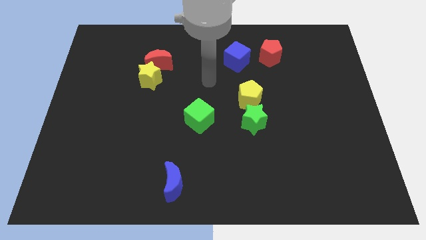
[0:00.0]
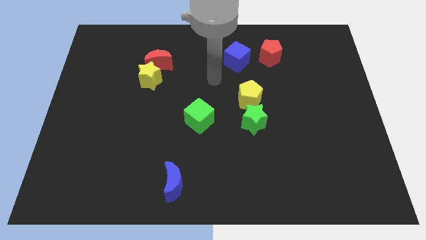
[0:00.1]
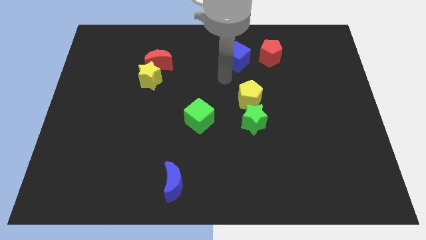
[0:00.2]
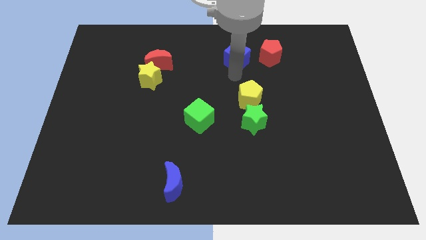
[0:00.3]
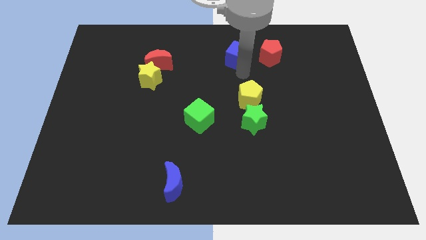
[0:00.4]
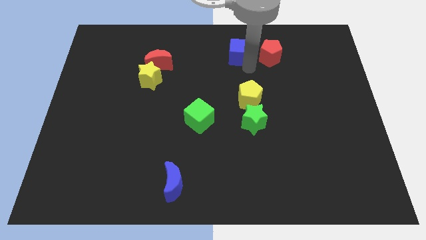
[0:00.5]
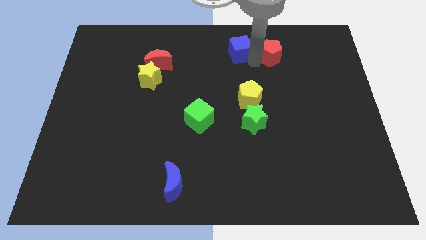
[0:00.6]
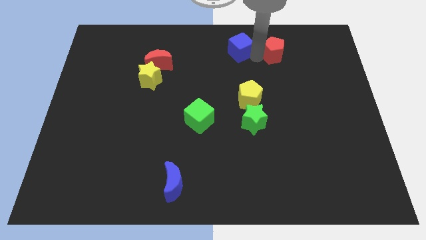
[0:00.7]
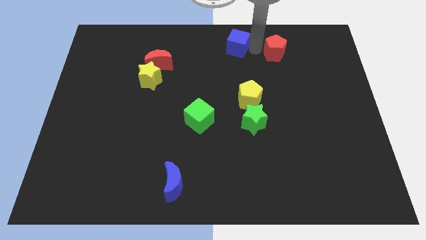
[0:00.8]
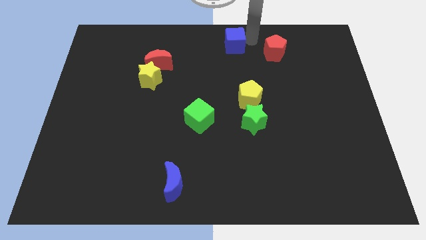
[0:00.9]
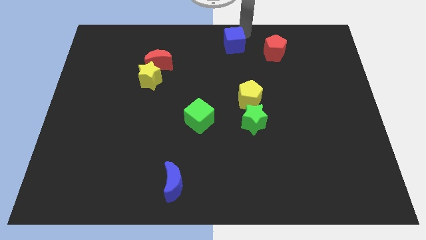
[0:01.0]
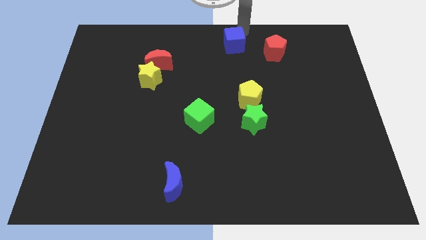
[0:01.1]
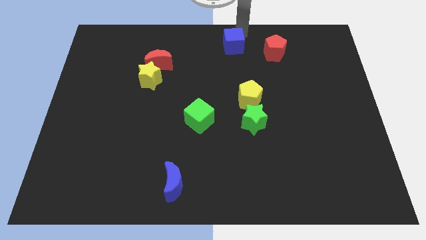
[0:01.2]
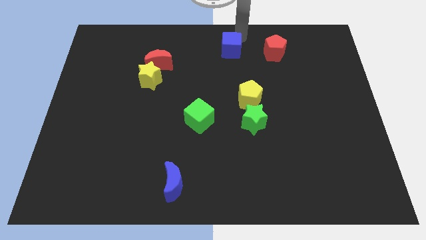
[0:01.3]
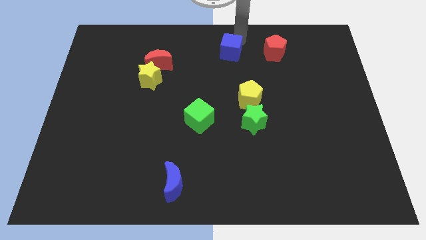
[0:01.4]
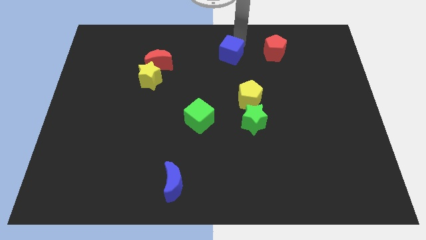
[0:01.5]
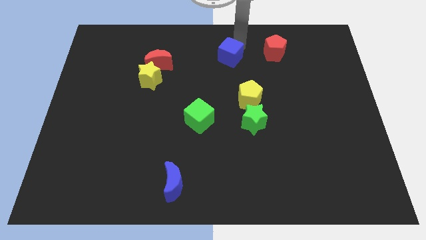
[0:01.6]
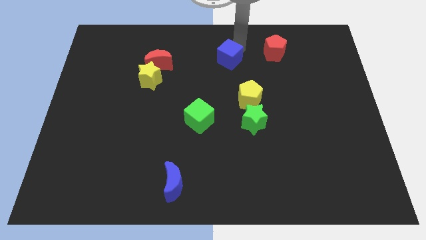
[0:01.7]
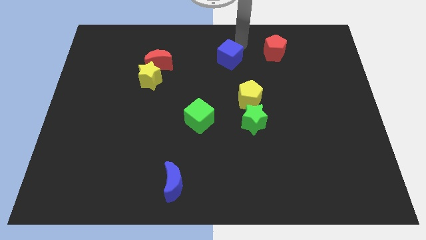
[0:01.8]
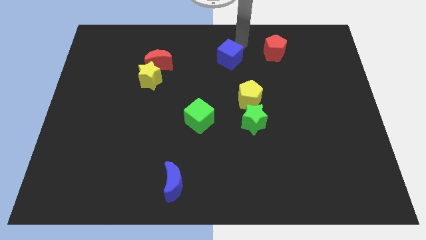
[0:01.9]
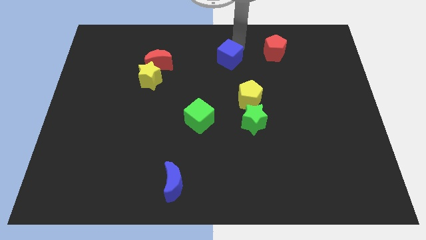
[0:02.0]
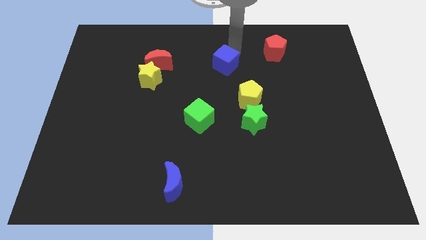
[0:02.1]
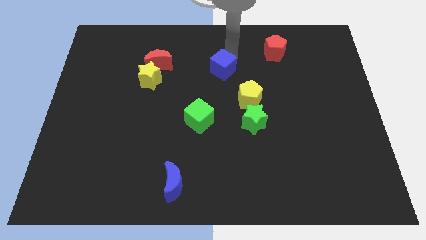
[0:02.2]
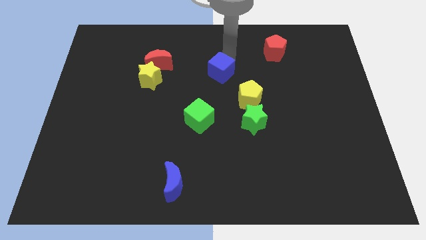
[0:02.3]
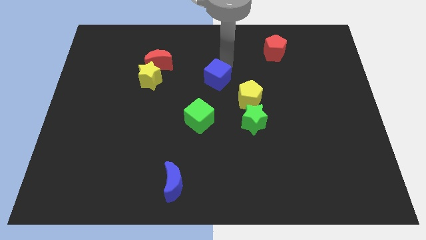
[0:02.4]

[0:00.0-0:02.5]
move the blue cube downwards and left diagonally slightly

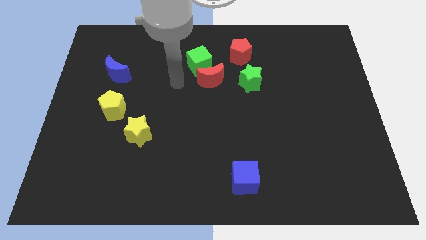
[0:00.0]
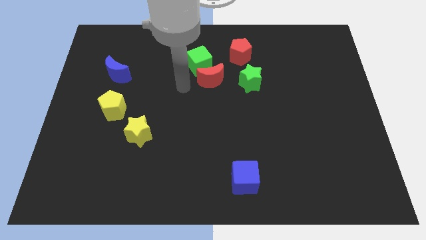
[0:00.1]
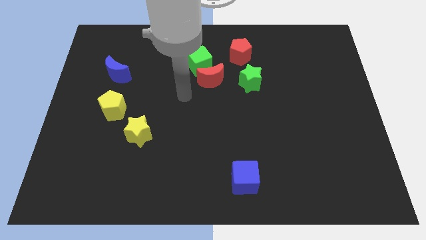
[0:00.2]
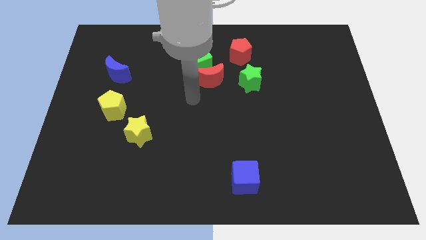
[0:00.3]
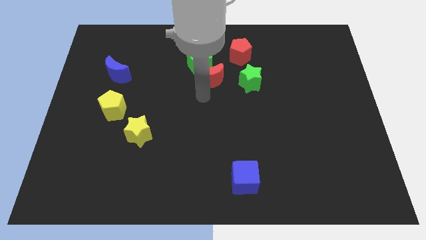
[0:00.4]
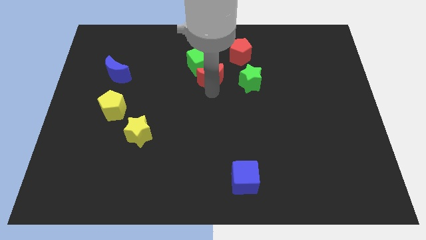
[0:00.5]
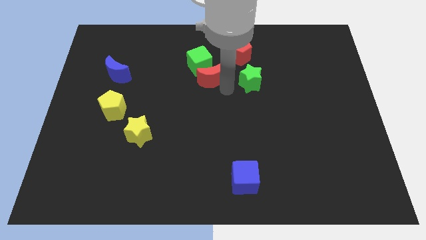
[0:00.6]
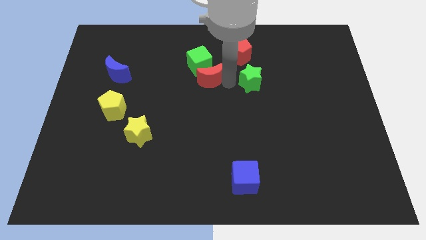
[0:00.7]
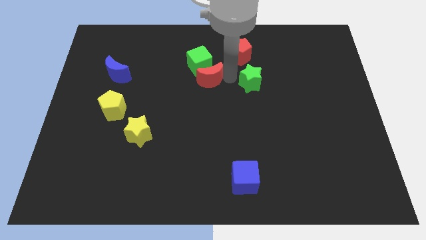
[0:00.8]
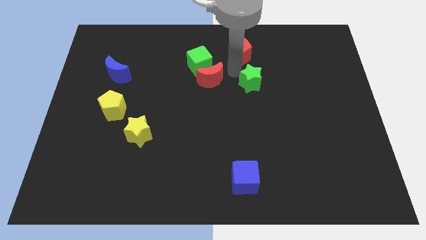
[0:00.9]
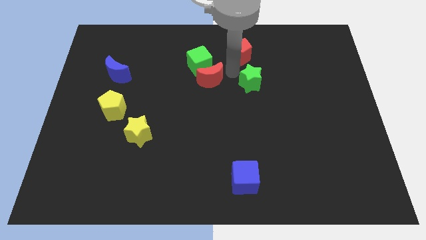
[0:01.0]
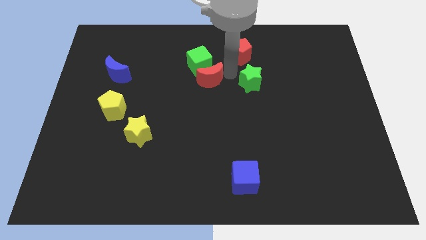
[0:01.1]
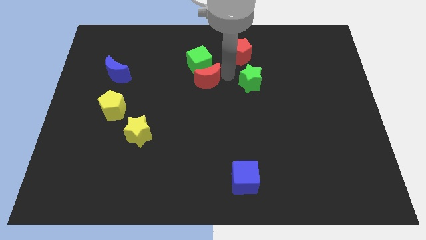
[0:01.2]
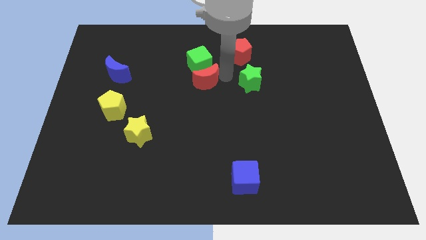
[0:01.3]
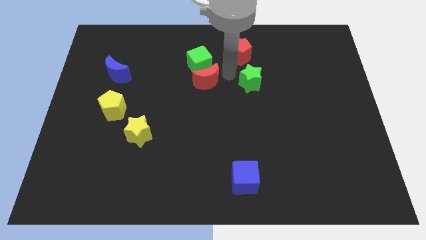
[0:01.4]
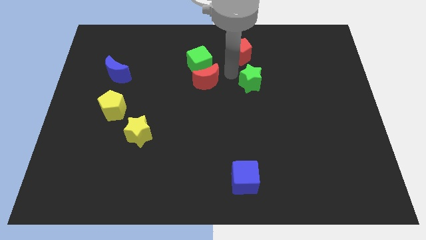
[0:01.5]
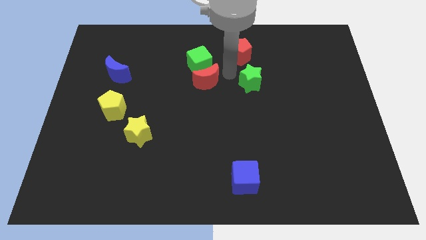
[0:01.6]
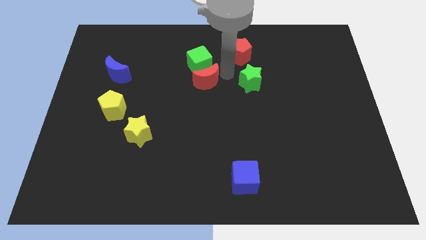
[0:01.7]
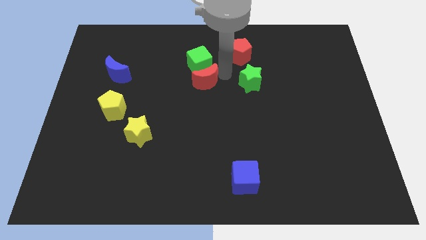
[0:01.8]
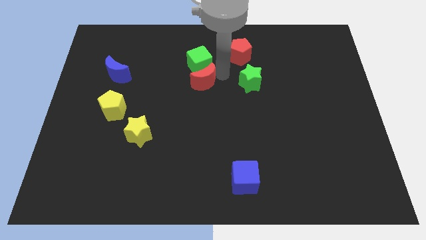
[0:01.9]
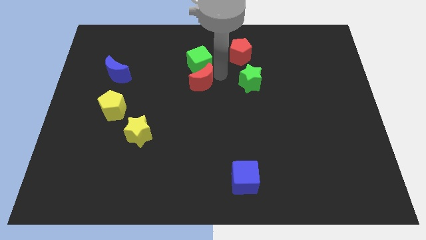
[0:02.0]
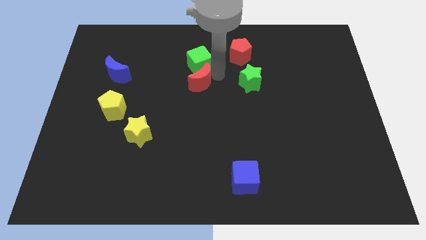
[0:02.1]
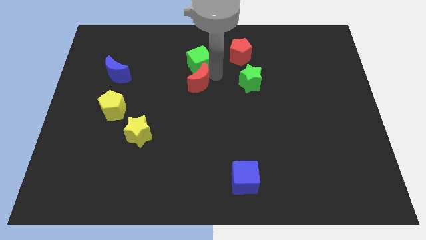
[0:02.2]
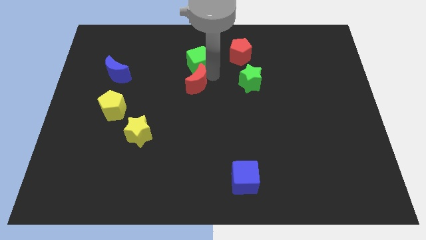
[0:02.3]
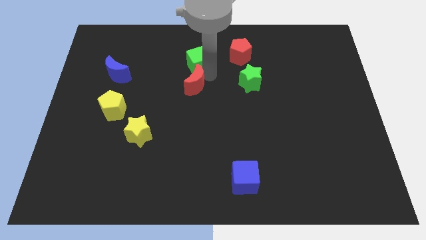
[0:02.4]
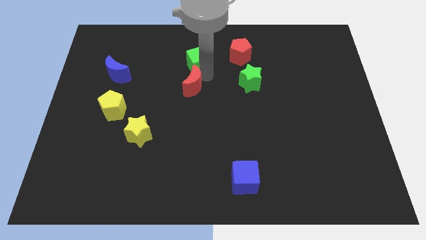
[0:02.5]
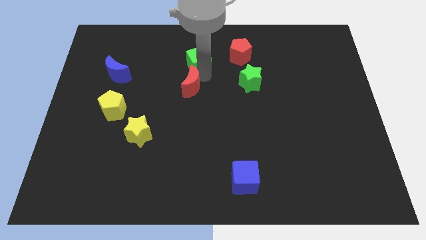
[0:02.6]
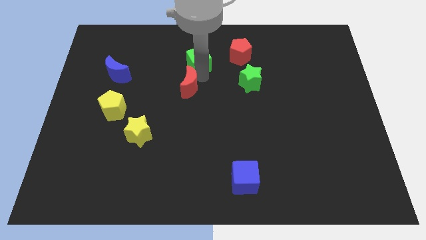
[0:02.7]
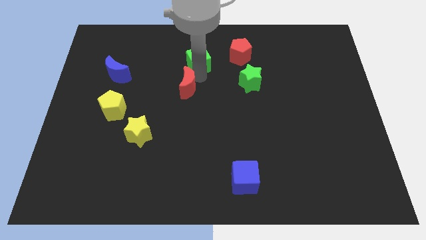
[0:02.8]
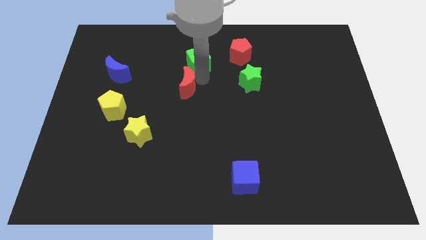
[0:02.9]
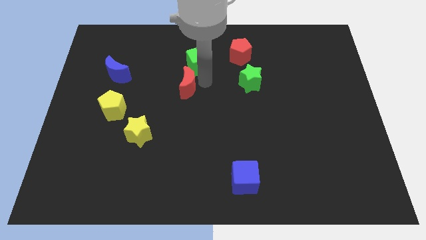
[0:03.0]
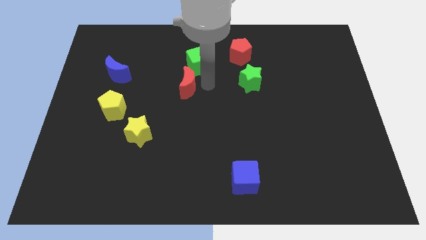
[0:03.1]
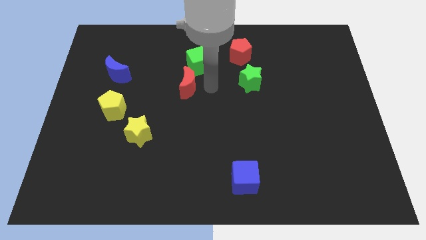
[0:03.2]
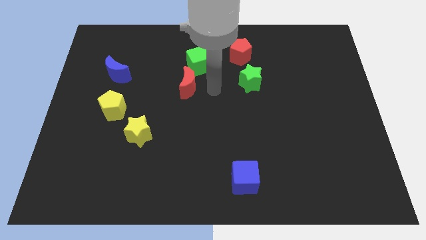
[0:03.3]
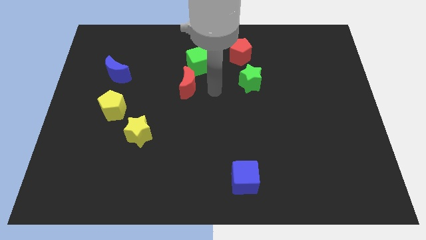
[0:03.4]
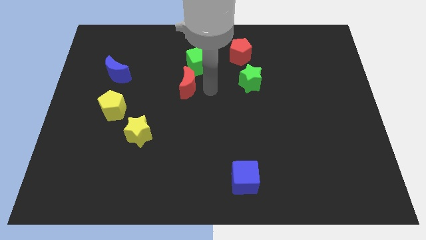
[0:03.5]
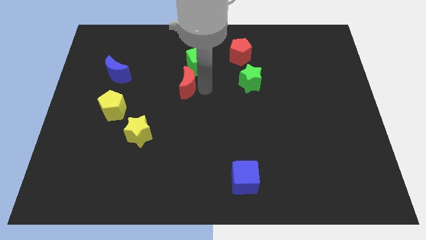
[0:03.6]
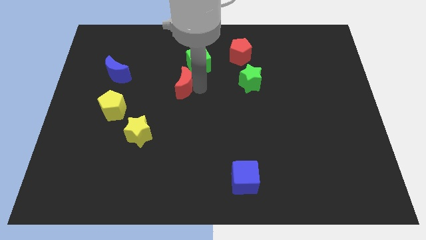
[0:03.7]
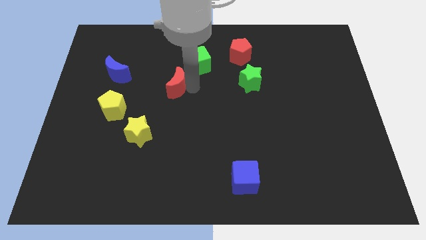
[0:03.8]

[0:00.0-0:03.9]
push the red moon somewhat to the left

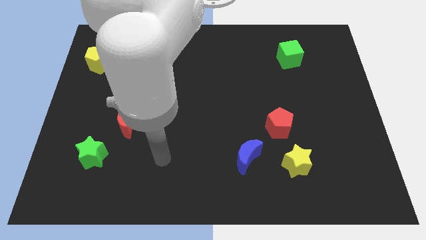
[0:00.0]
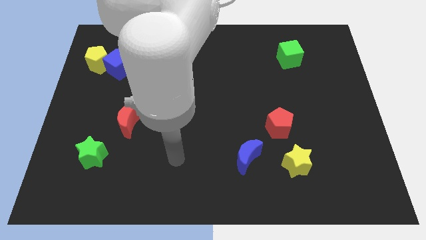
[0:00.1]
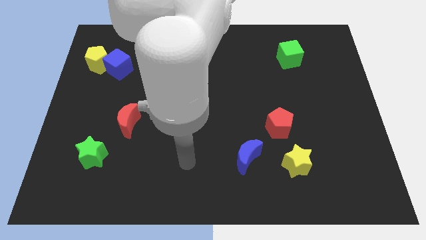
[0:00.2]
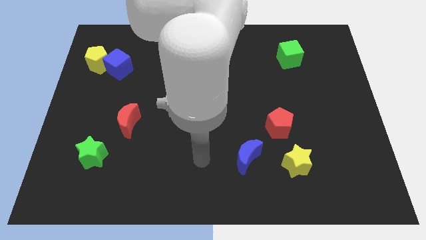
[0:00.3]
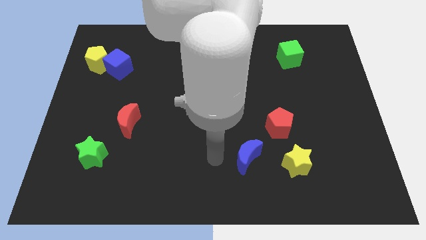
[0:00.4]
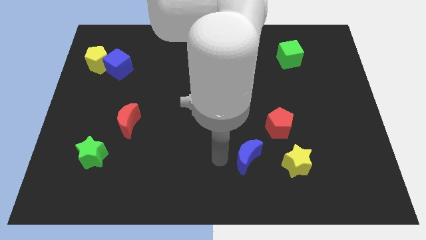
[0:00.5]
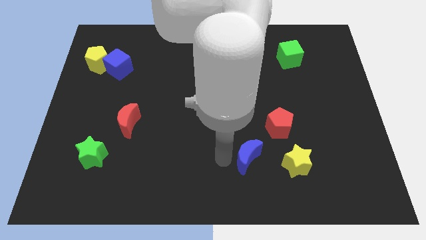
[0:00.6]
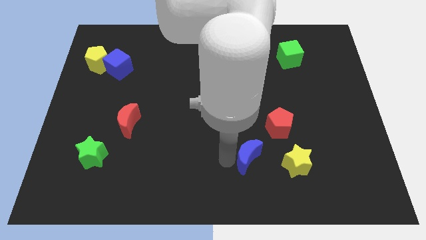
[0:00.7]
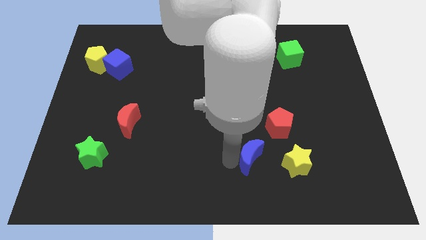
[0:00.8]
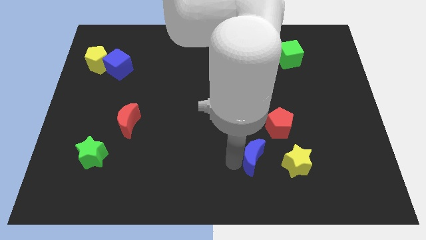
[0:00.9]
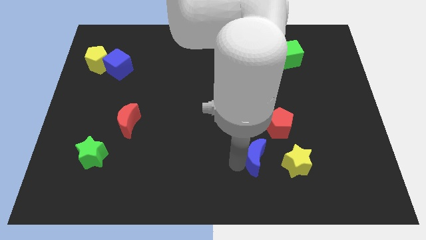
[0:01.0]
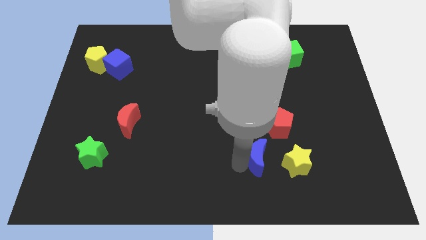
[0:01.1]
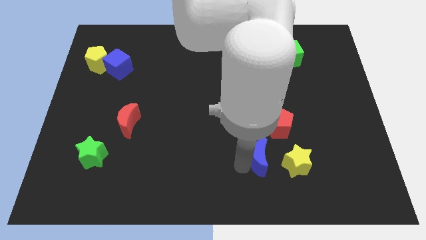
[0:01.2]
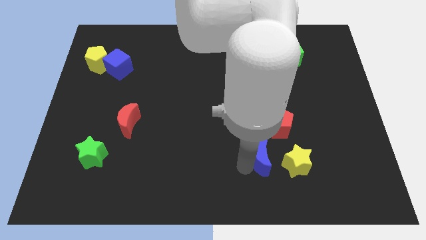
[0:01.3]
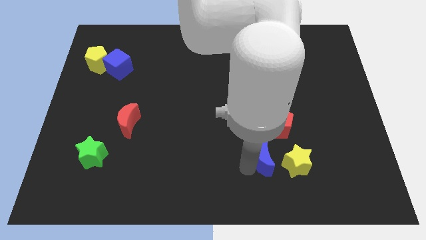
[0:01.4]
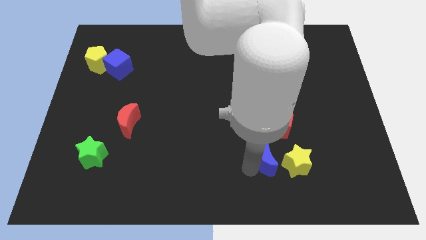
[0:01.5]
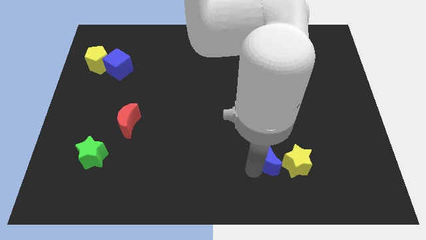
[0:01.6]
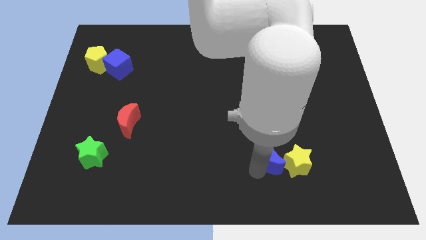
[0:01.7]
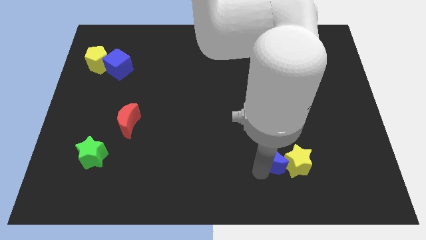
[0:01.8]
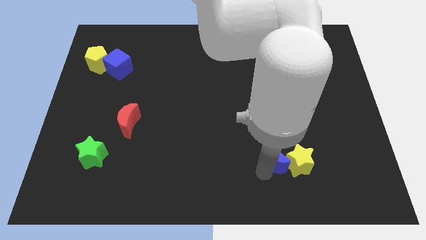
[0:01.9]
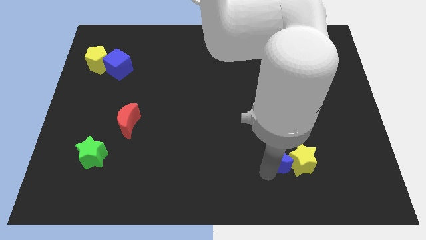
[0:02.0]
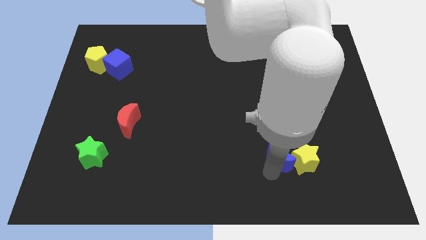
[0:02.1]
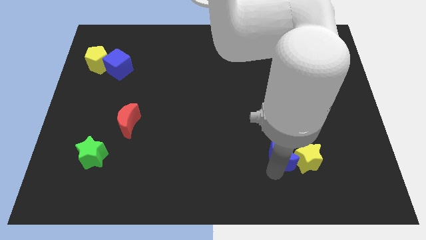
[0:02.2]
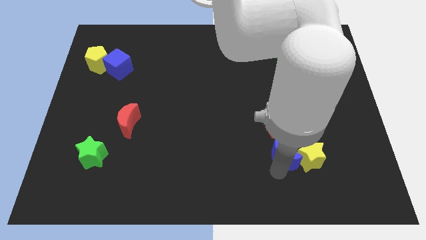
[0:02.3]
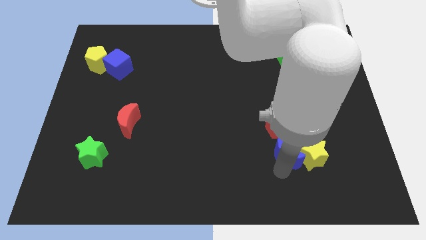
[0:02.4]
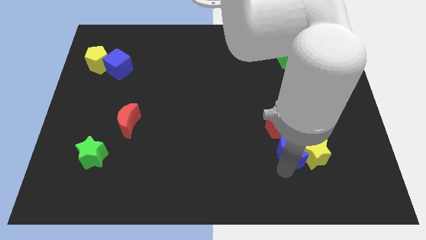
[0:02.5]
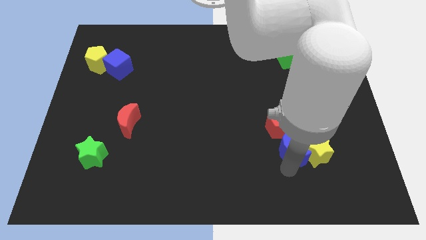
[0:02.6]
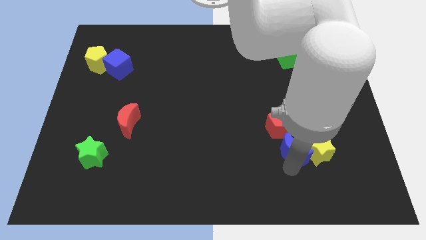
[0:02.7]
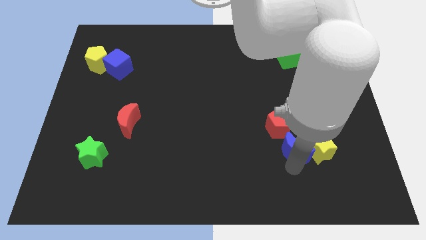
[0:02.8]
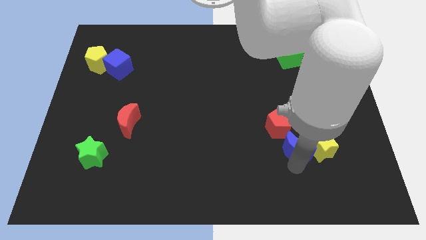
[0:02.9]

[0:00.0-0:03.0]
move the blue moon up and right diagonally slightly
